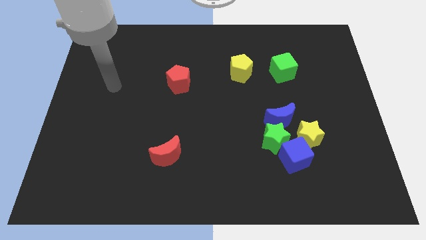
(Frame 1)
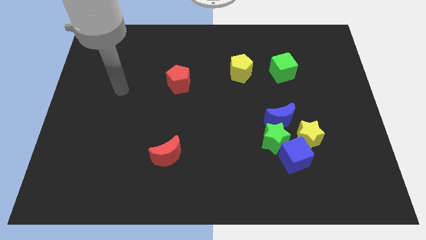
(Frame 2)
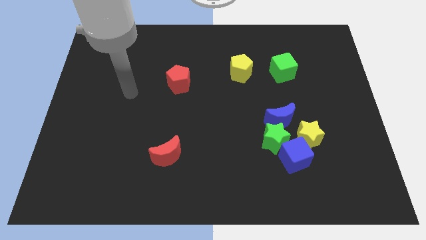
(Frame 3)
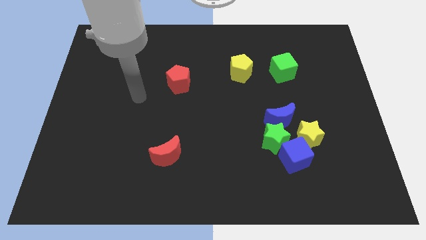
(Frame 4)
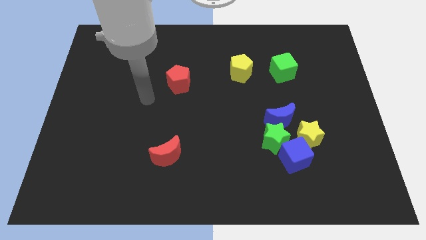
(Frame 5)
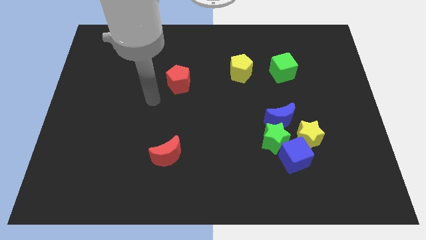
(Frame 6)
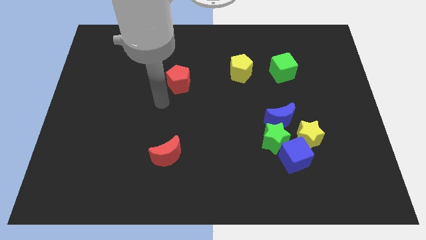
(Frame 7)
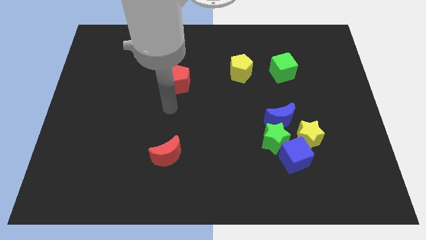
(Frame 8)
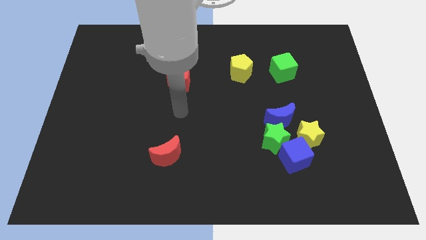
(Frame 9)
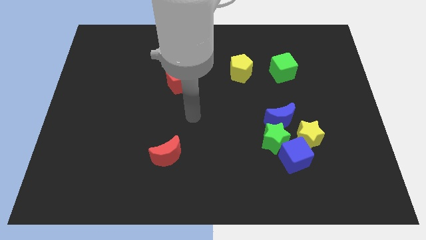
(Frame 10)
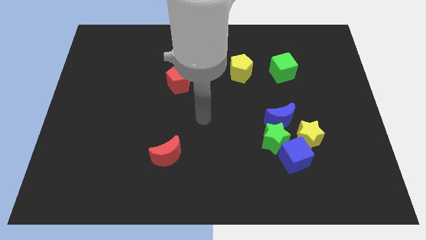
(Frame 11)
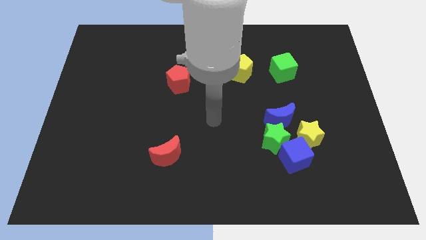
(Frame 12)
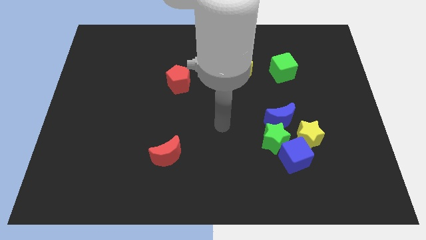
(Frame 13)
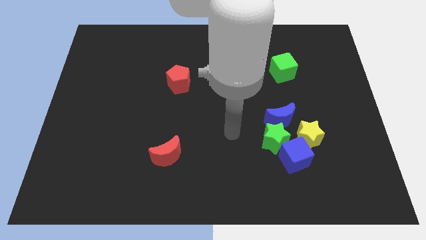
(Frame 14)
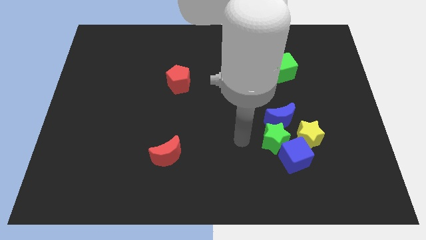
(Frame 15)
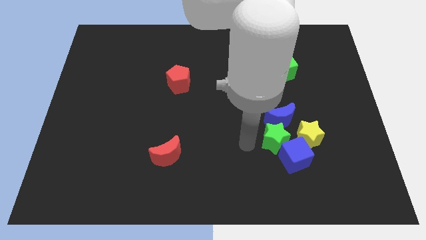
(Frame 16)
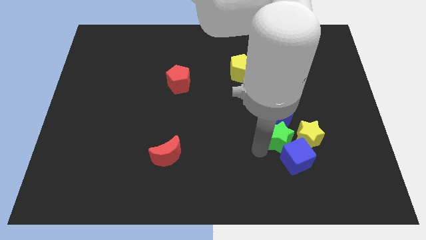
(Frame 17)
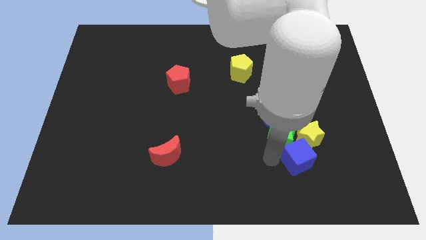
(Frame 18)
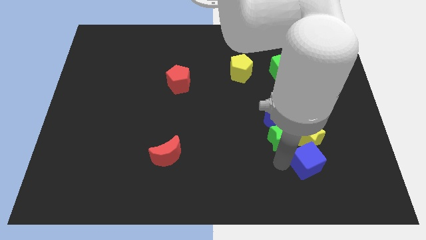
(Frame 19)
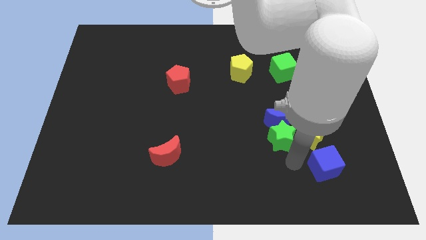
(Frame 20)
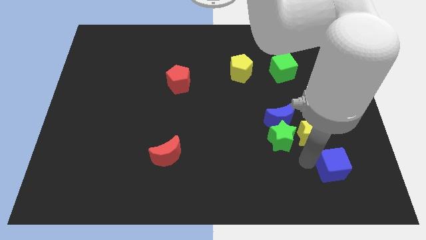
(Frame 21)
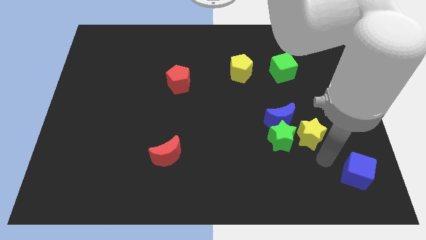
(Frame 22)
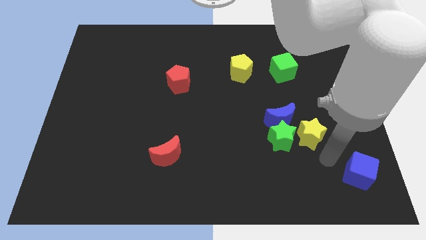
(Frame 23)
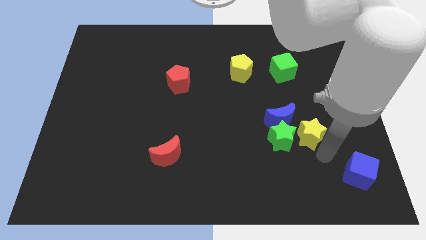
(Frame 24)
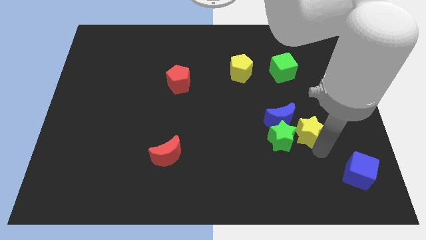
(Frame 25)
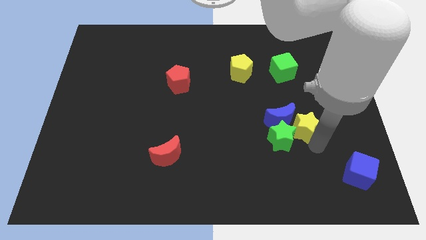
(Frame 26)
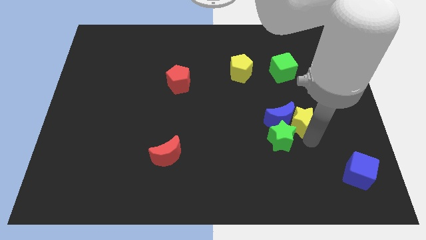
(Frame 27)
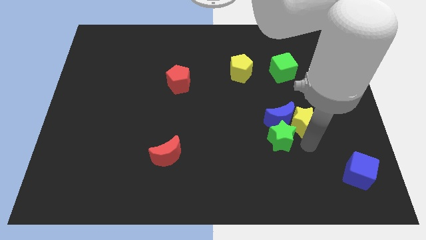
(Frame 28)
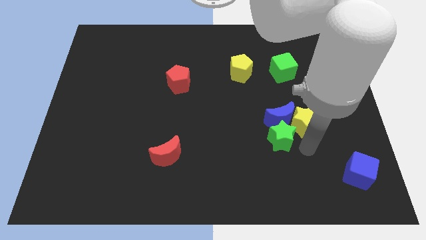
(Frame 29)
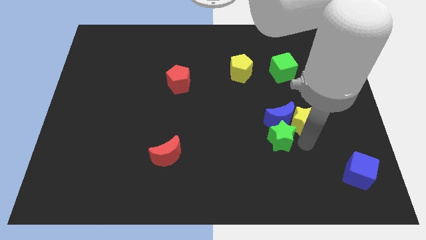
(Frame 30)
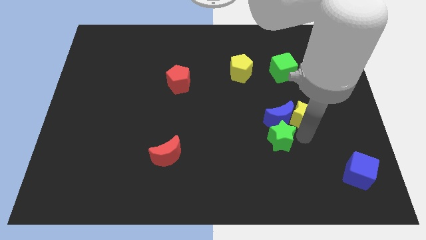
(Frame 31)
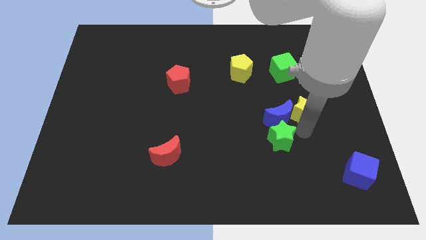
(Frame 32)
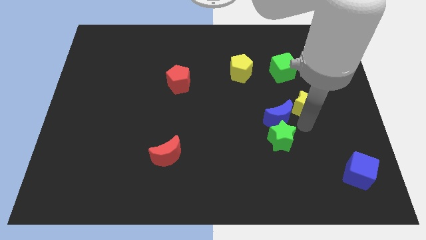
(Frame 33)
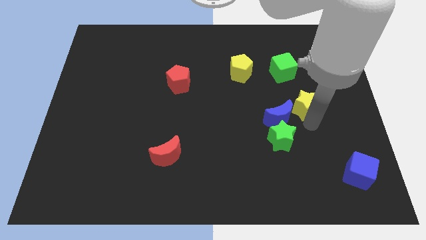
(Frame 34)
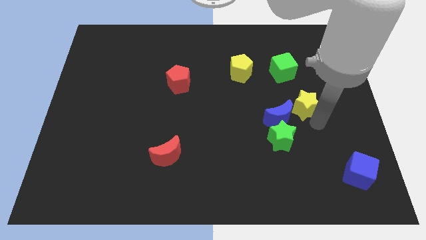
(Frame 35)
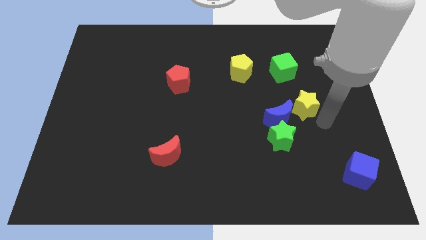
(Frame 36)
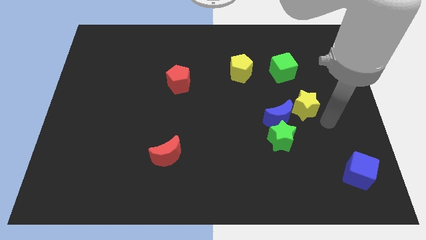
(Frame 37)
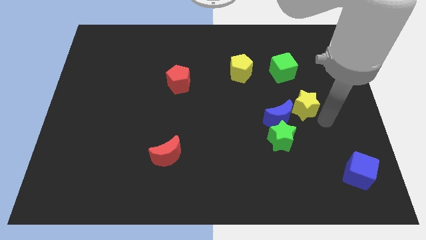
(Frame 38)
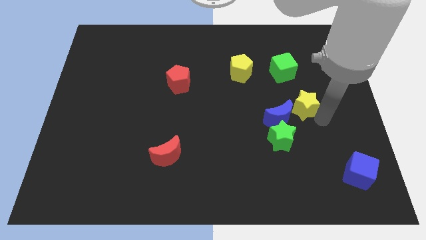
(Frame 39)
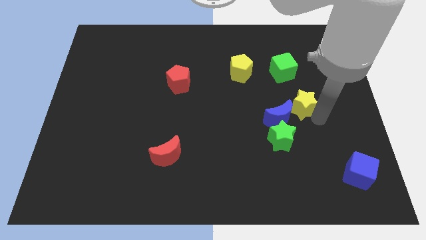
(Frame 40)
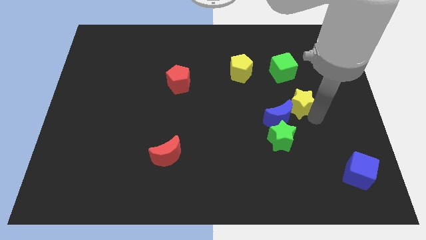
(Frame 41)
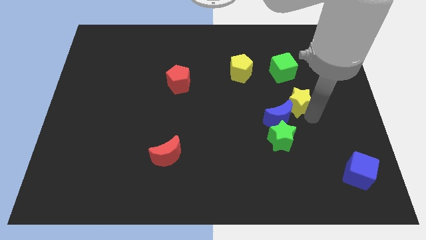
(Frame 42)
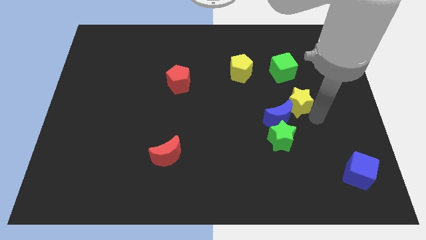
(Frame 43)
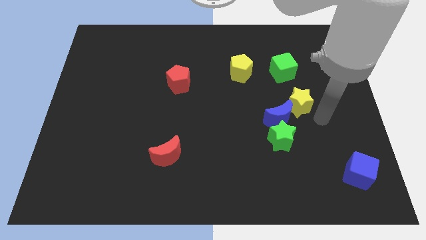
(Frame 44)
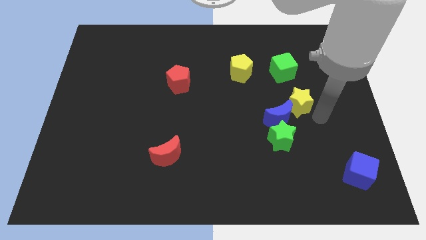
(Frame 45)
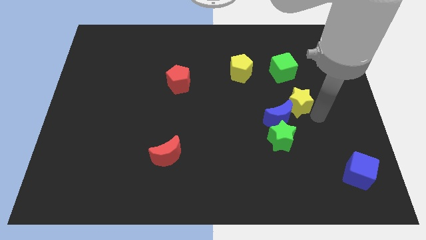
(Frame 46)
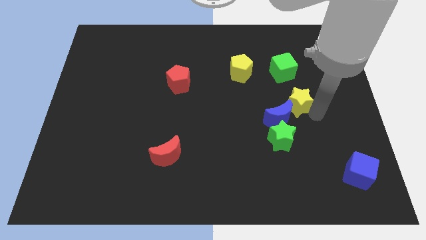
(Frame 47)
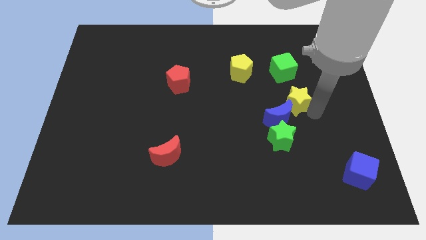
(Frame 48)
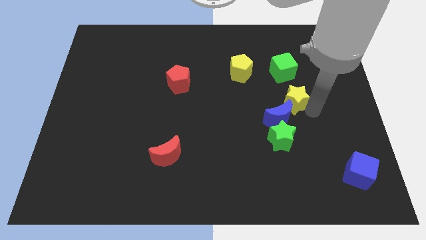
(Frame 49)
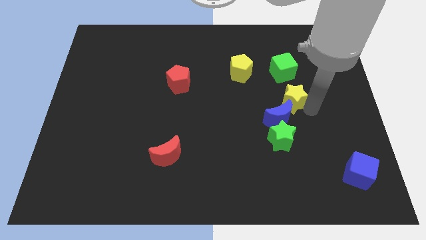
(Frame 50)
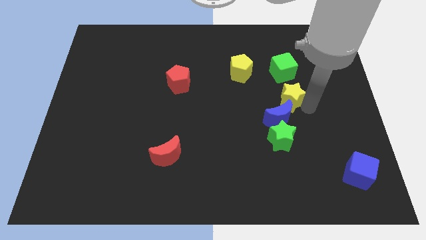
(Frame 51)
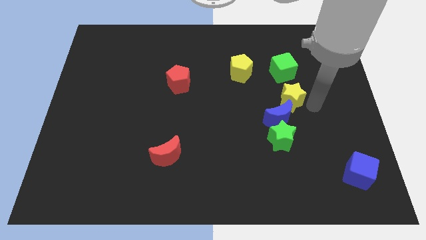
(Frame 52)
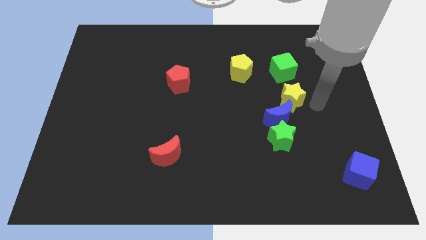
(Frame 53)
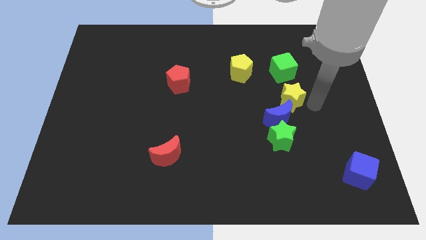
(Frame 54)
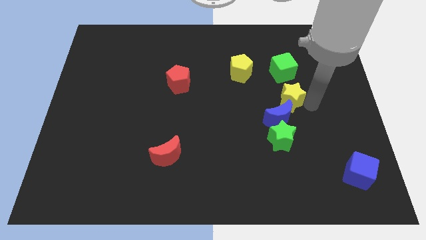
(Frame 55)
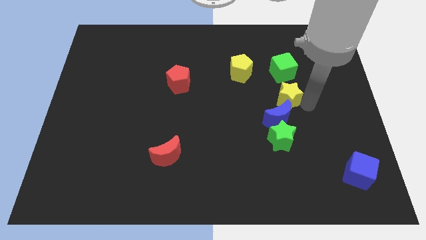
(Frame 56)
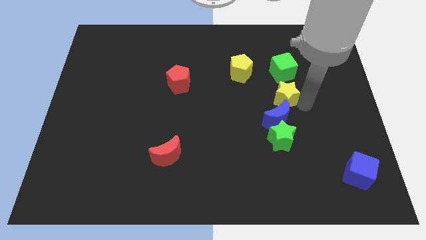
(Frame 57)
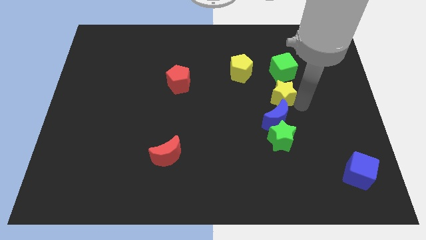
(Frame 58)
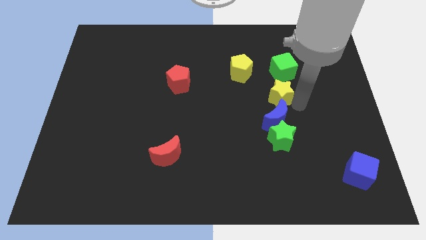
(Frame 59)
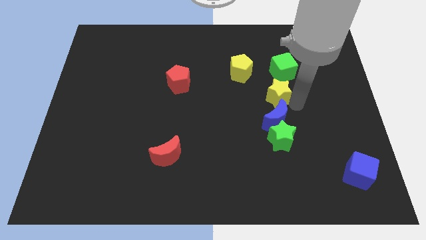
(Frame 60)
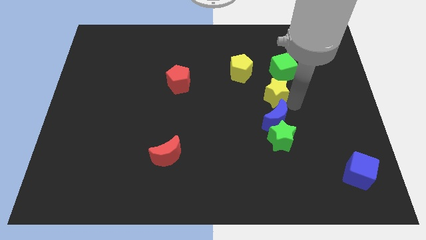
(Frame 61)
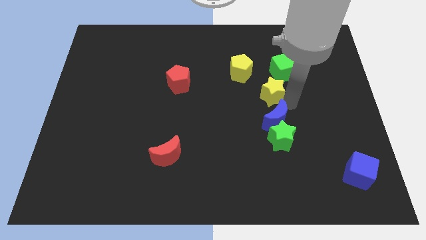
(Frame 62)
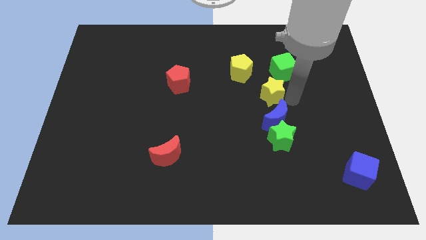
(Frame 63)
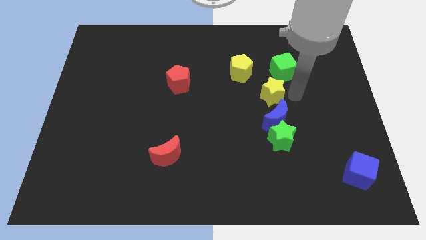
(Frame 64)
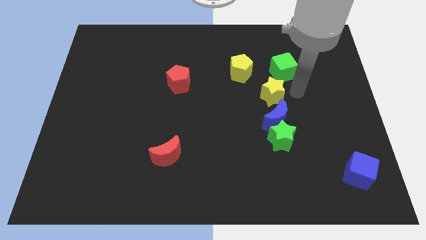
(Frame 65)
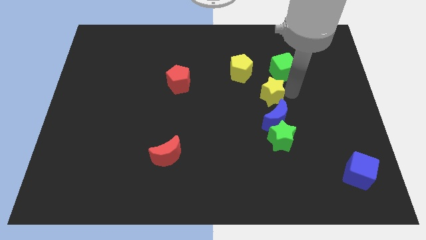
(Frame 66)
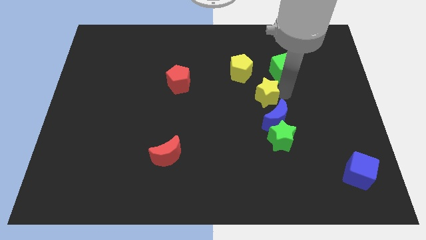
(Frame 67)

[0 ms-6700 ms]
move the yellow star to the center
